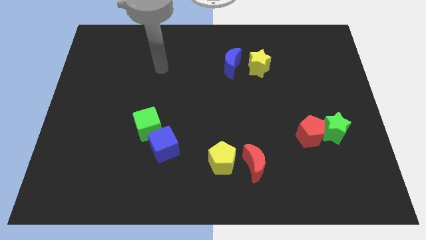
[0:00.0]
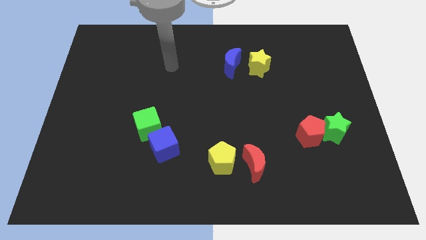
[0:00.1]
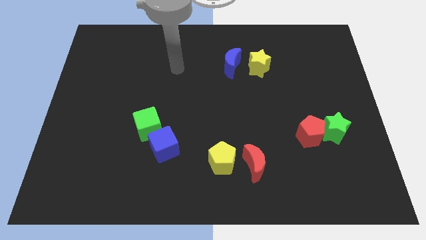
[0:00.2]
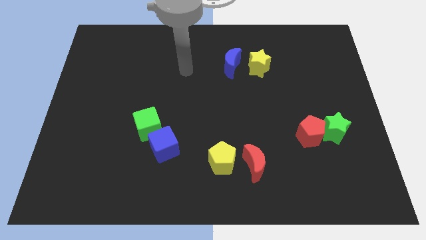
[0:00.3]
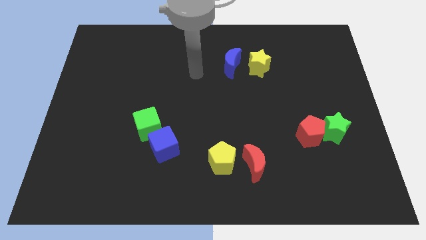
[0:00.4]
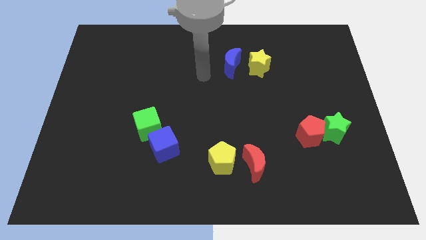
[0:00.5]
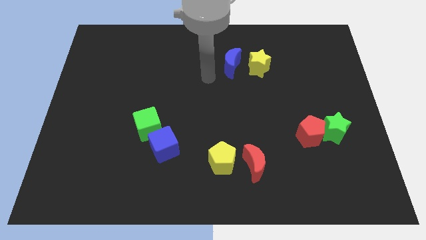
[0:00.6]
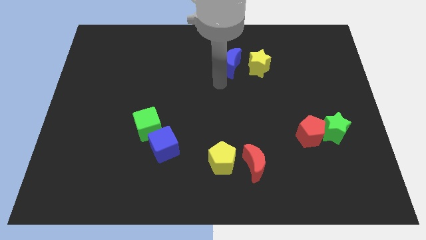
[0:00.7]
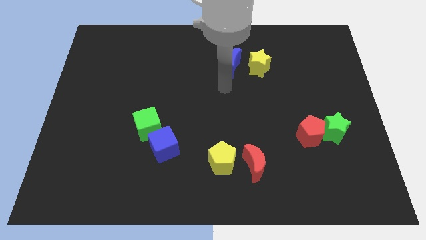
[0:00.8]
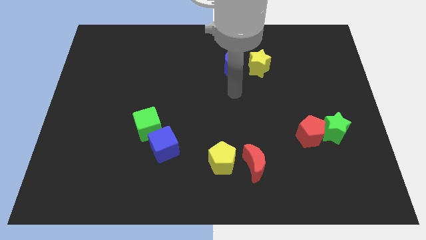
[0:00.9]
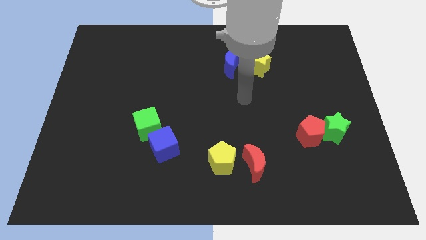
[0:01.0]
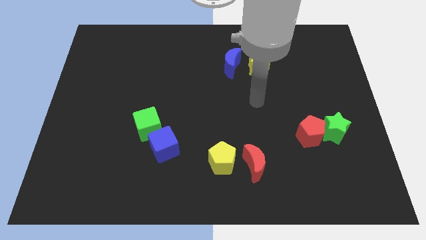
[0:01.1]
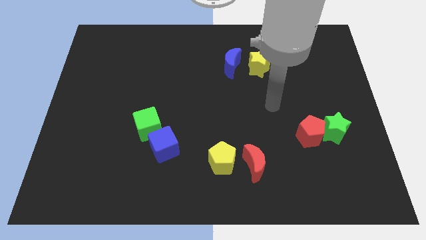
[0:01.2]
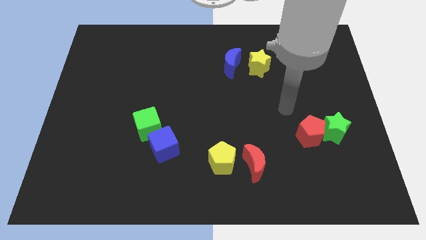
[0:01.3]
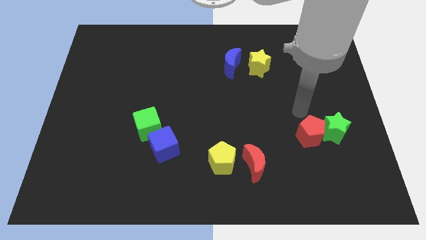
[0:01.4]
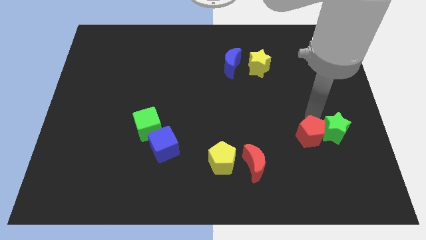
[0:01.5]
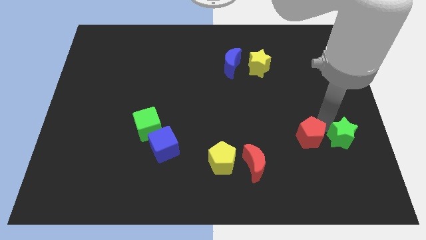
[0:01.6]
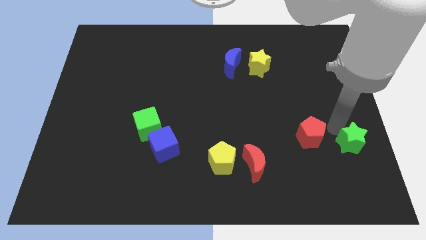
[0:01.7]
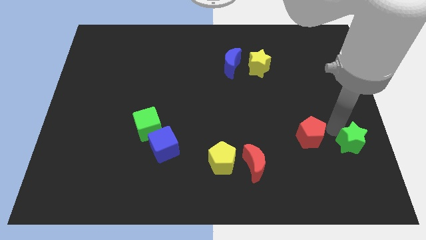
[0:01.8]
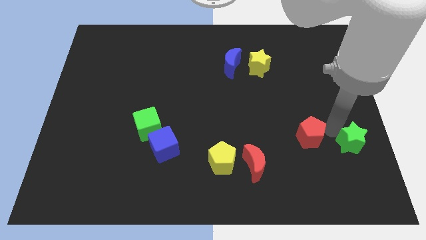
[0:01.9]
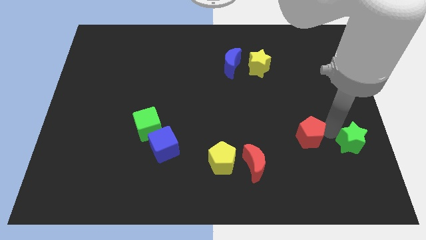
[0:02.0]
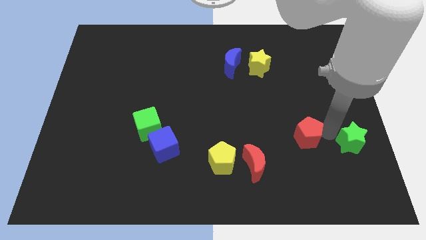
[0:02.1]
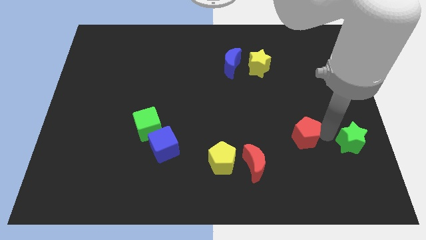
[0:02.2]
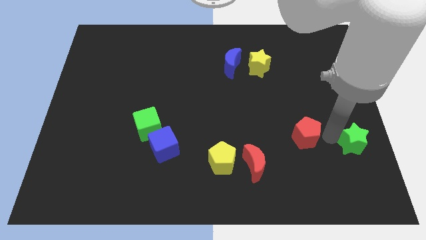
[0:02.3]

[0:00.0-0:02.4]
pull the red pentagon apart from the green star

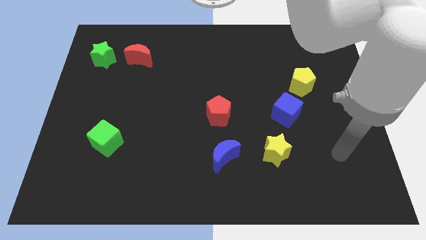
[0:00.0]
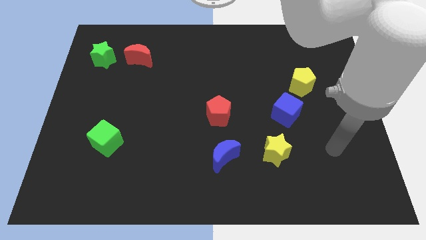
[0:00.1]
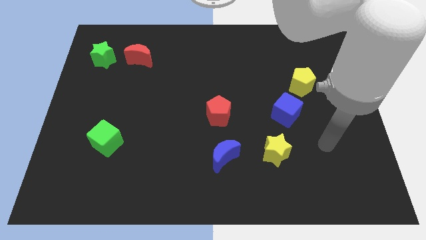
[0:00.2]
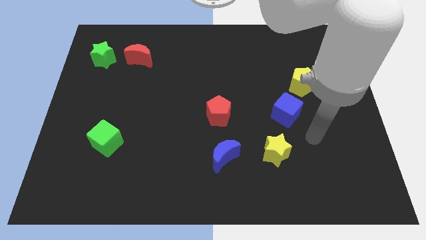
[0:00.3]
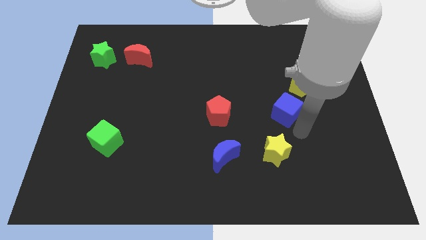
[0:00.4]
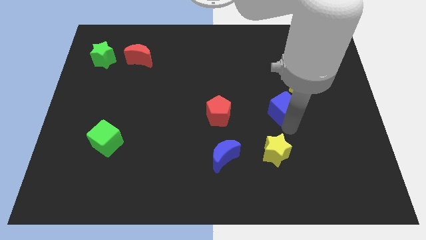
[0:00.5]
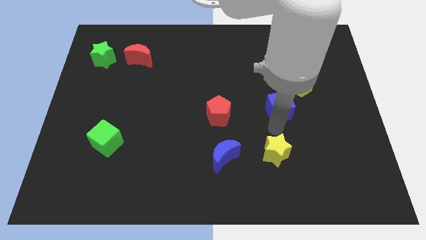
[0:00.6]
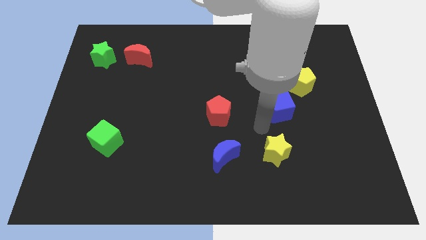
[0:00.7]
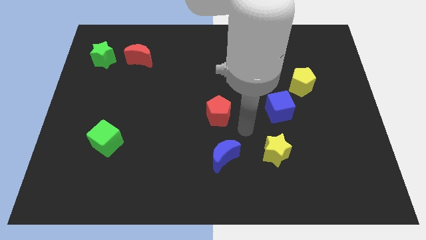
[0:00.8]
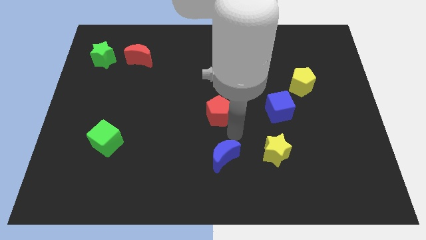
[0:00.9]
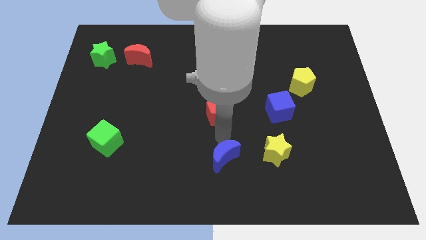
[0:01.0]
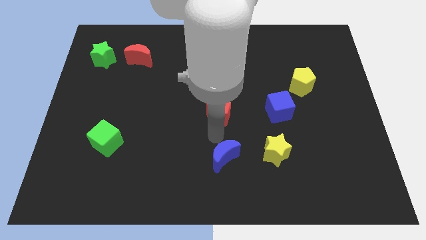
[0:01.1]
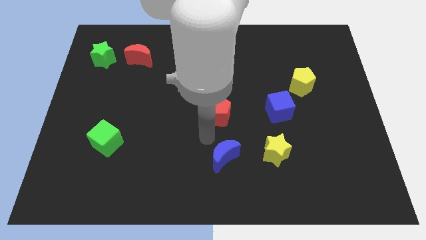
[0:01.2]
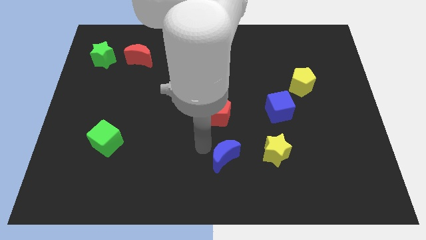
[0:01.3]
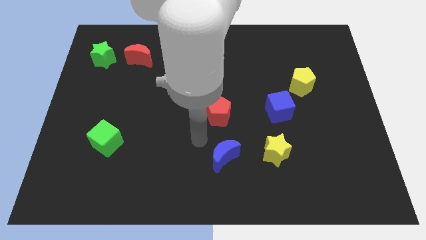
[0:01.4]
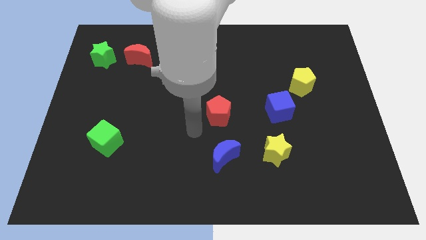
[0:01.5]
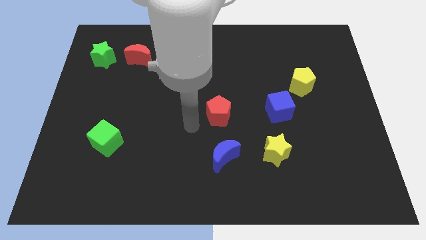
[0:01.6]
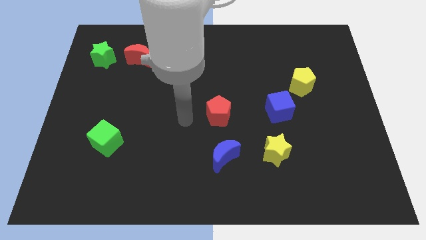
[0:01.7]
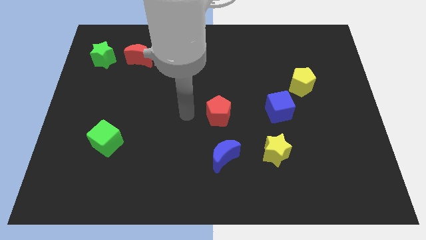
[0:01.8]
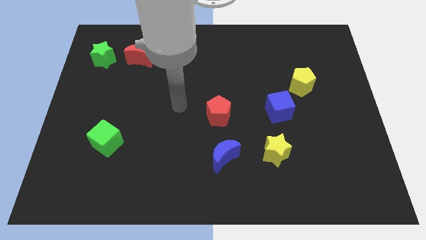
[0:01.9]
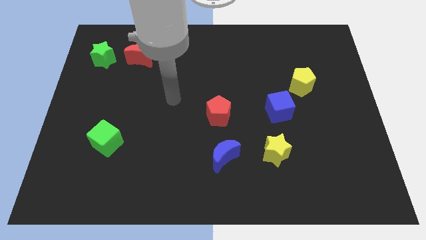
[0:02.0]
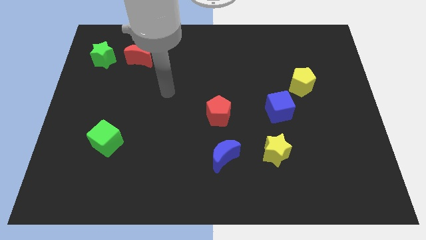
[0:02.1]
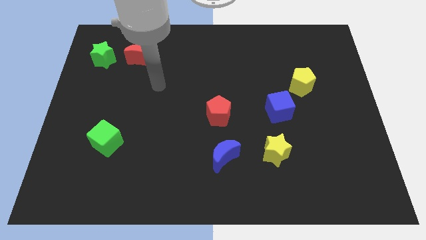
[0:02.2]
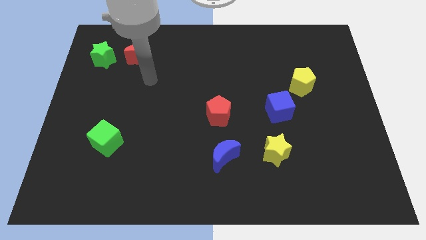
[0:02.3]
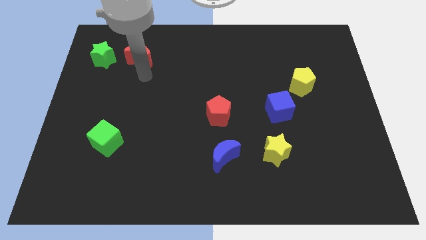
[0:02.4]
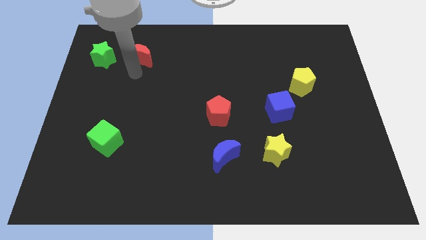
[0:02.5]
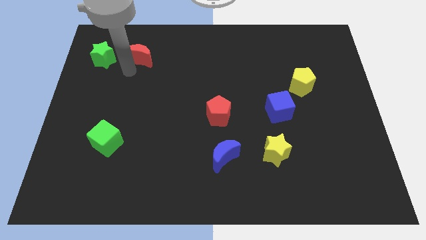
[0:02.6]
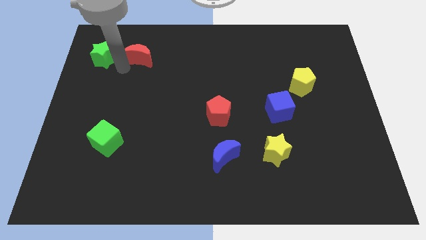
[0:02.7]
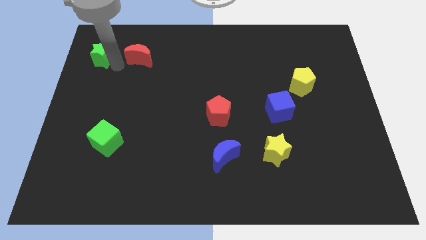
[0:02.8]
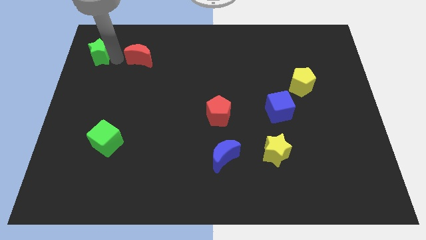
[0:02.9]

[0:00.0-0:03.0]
move the red moon away from the green star

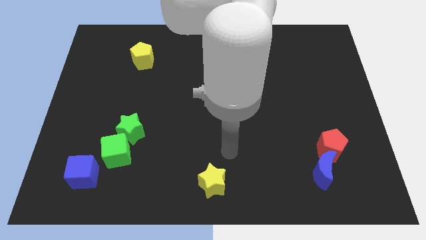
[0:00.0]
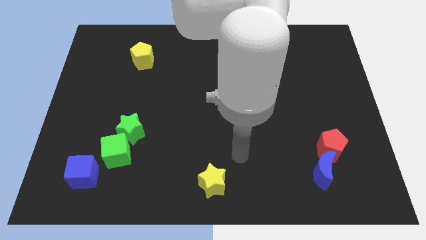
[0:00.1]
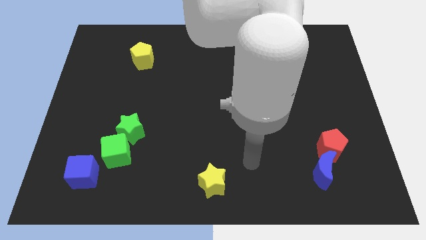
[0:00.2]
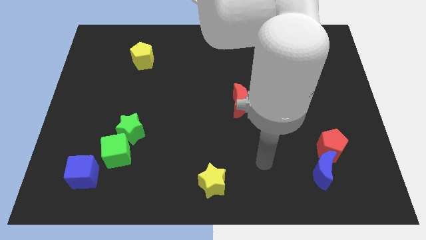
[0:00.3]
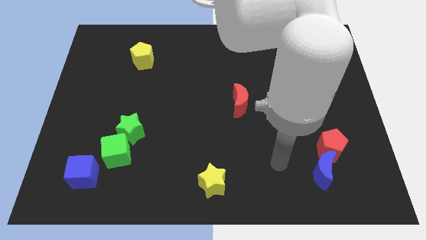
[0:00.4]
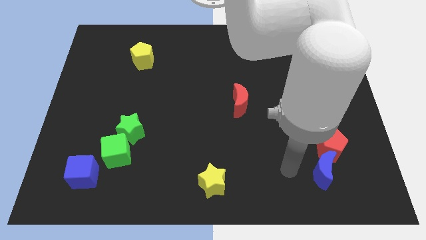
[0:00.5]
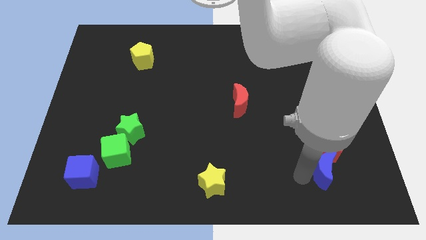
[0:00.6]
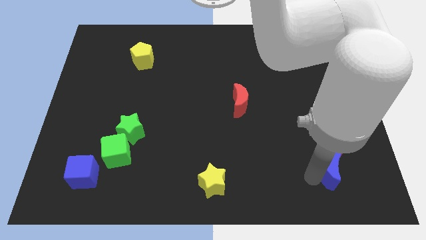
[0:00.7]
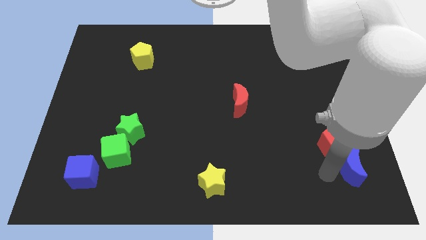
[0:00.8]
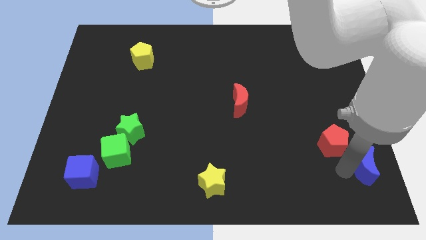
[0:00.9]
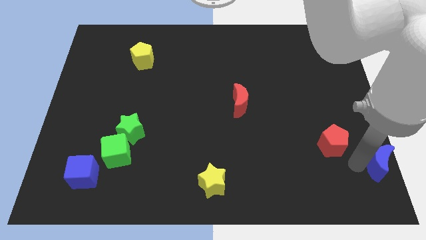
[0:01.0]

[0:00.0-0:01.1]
move the red pentagon away from the blue moon

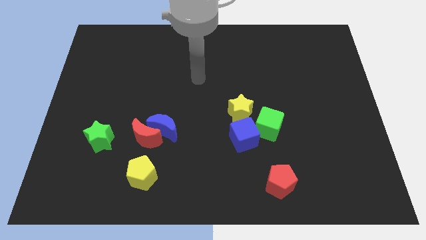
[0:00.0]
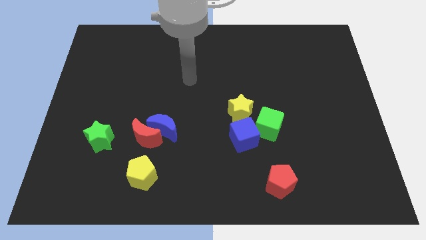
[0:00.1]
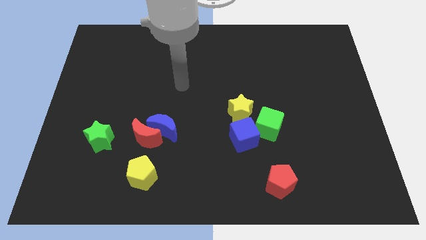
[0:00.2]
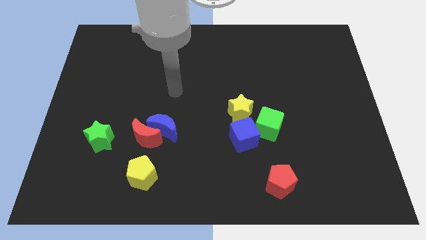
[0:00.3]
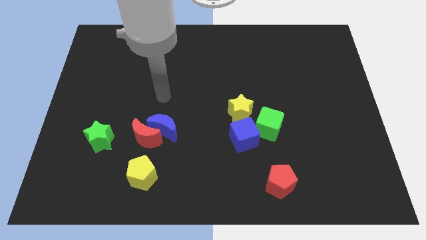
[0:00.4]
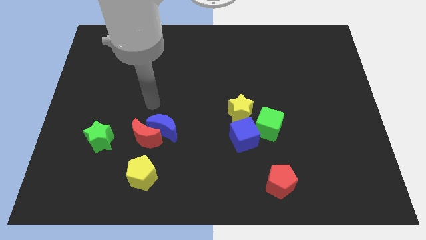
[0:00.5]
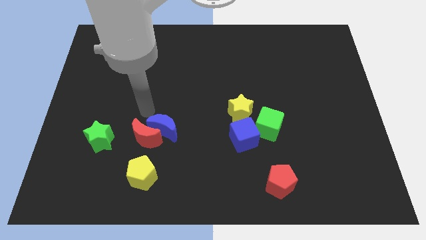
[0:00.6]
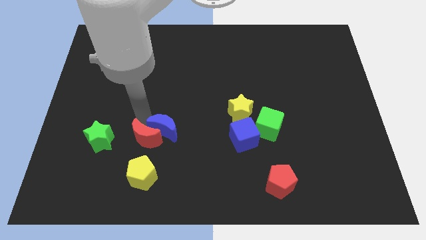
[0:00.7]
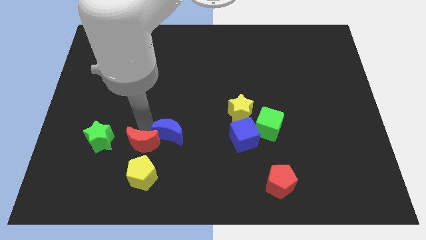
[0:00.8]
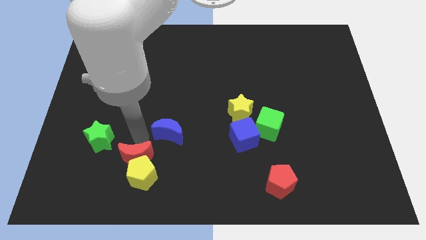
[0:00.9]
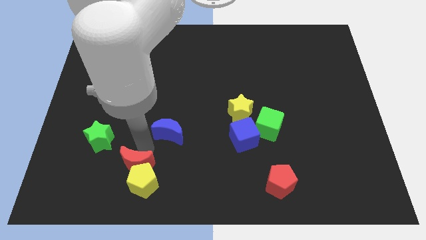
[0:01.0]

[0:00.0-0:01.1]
separate the blue moon from the red moon

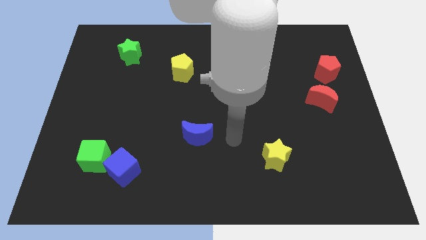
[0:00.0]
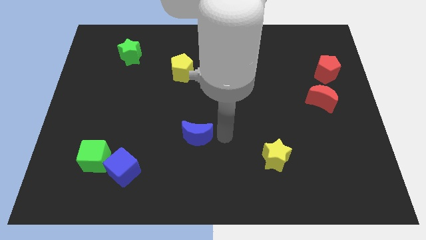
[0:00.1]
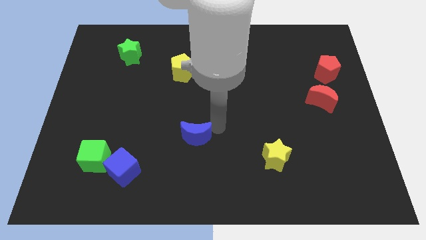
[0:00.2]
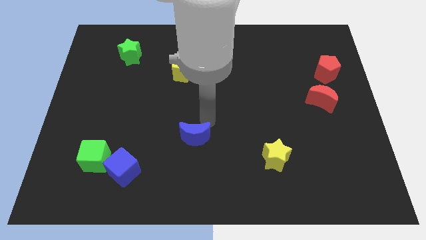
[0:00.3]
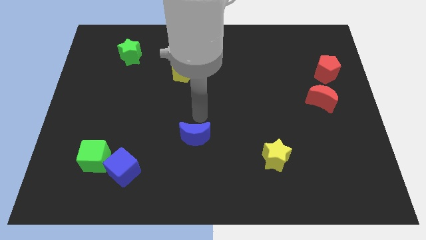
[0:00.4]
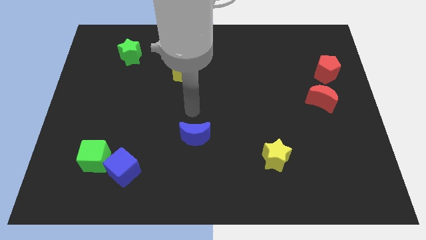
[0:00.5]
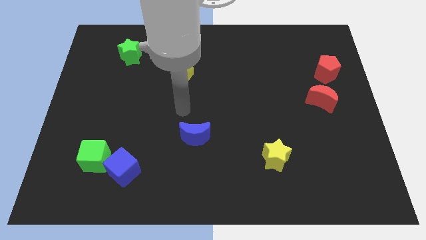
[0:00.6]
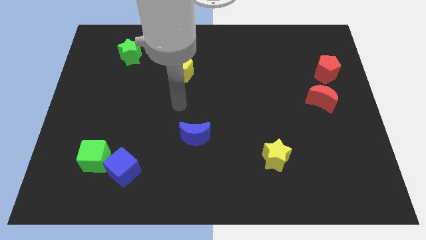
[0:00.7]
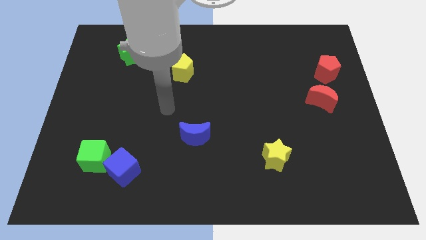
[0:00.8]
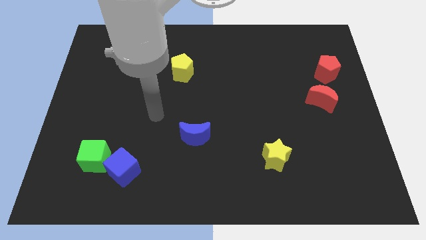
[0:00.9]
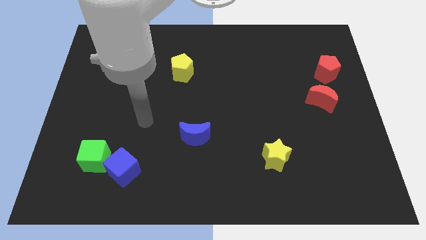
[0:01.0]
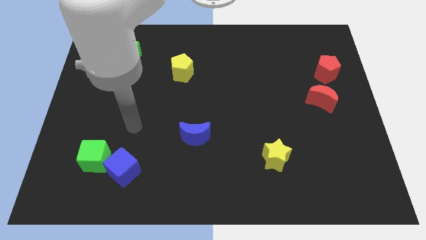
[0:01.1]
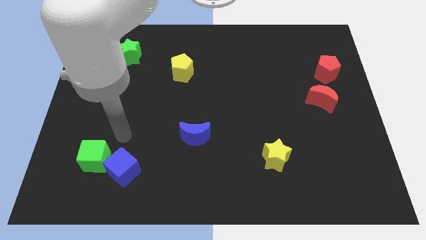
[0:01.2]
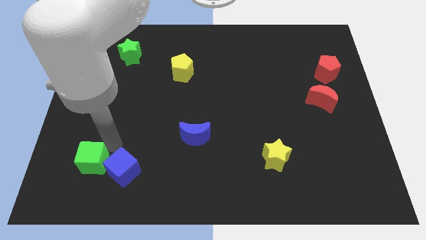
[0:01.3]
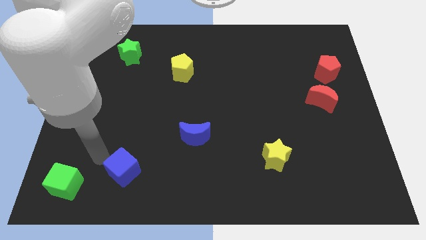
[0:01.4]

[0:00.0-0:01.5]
pull the blue cube apart from the green cube

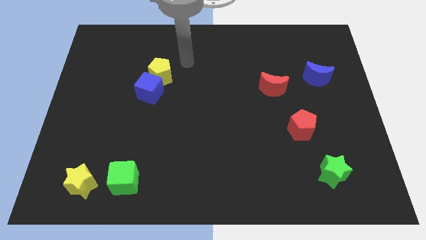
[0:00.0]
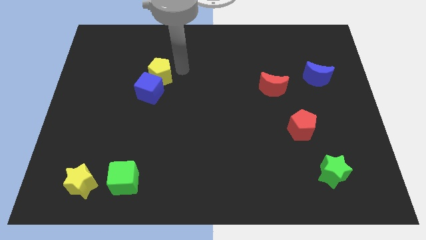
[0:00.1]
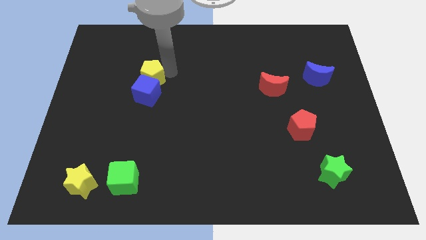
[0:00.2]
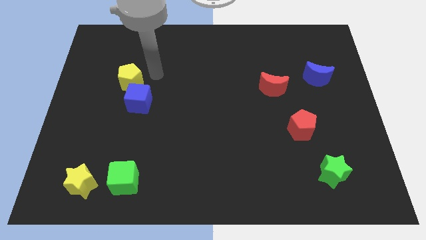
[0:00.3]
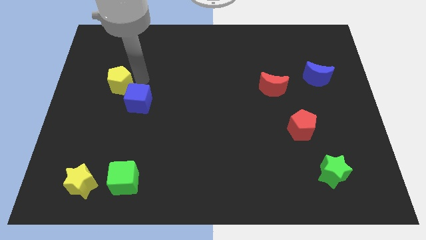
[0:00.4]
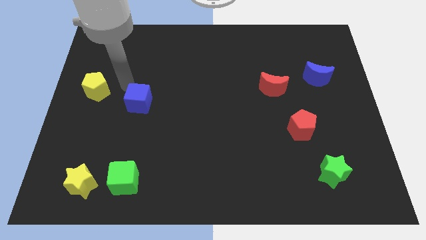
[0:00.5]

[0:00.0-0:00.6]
separate the blue cube from the yellow pentagon
